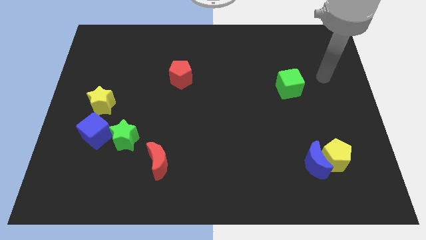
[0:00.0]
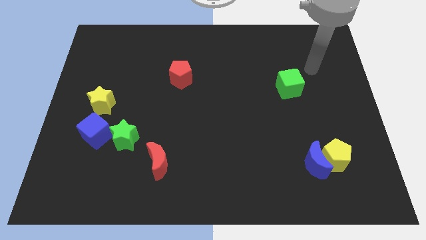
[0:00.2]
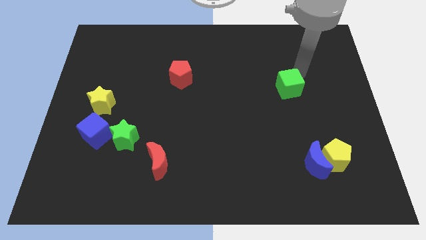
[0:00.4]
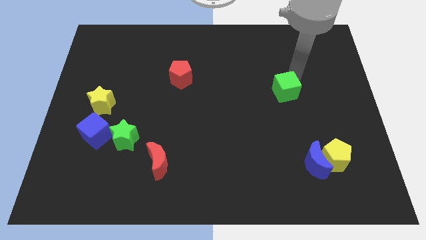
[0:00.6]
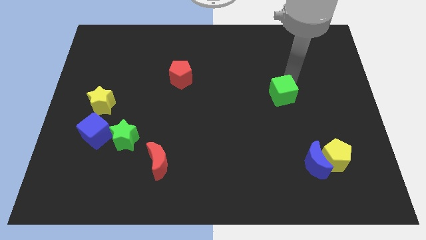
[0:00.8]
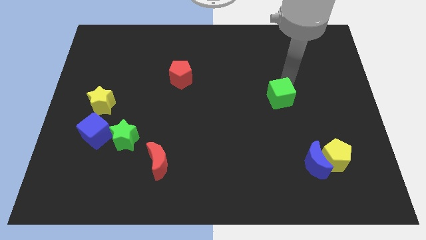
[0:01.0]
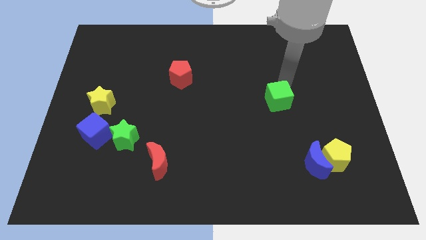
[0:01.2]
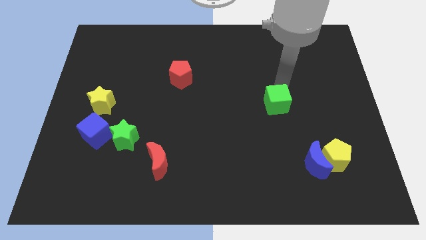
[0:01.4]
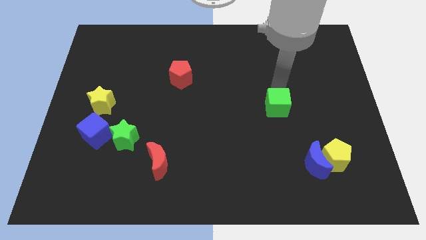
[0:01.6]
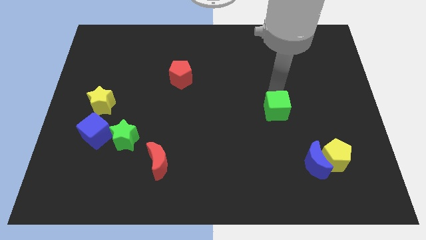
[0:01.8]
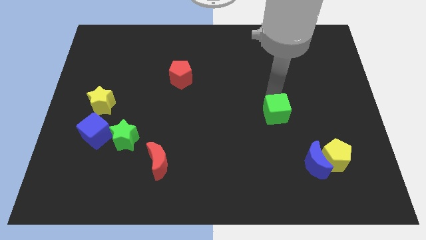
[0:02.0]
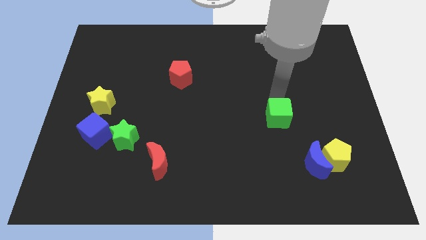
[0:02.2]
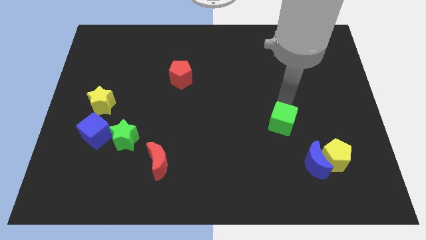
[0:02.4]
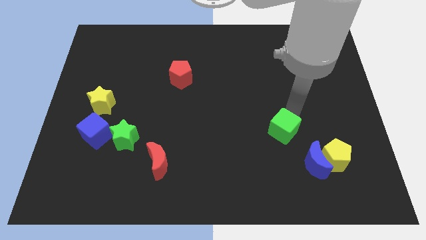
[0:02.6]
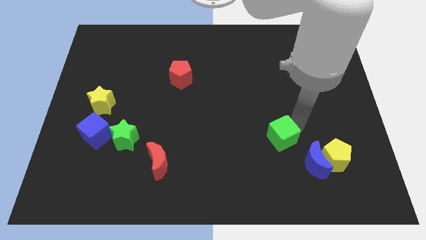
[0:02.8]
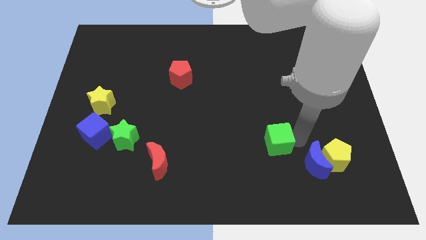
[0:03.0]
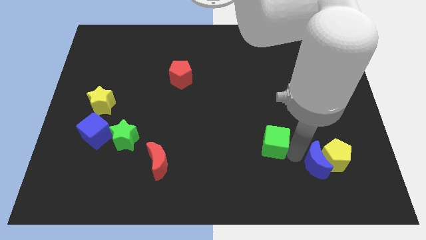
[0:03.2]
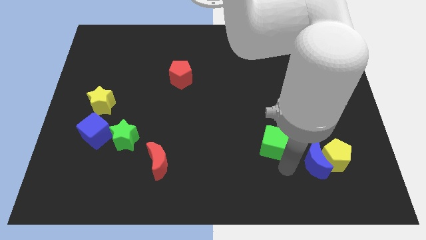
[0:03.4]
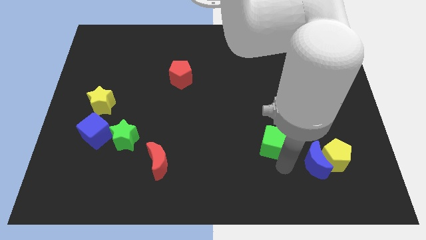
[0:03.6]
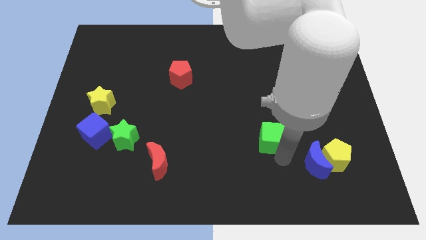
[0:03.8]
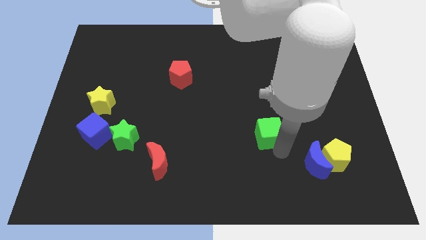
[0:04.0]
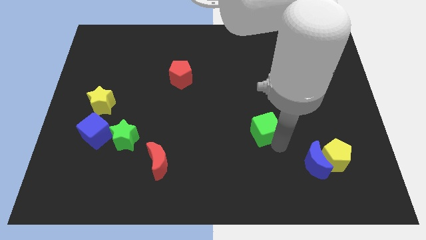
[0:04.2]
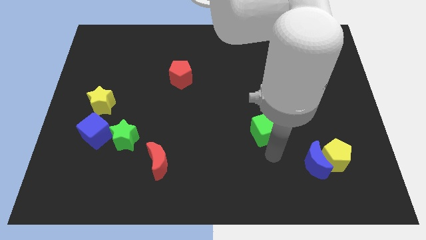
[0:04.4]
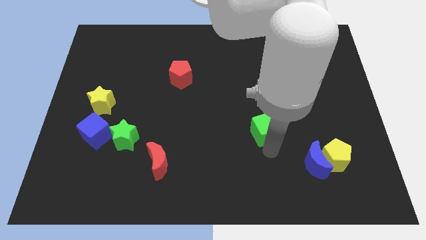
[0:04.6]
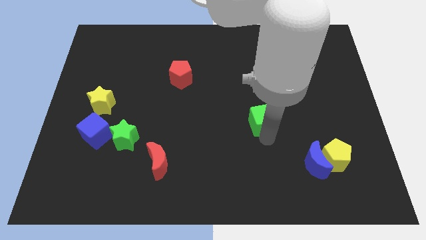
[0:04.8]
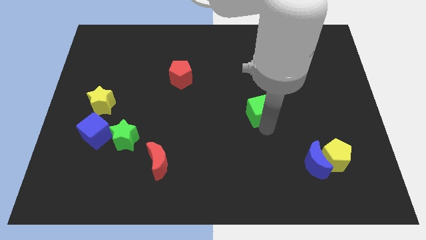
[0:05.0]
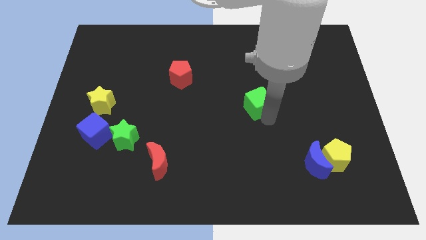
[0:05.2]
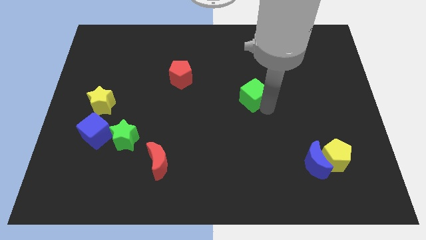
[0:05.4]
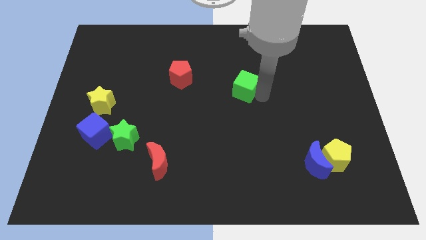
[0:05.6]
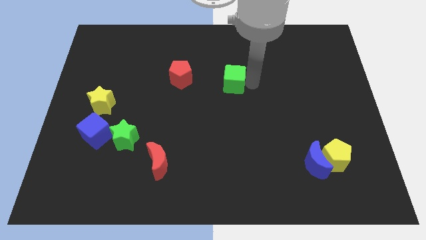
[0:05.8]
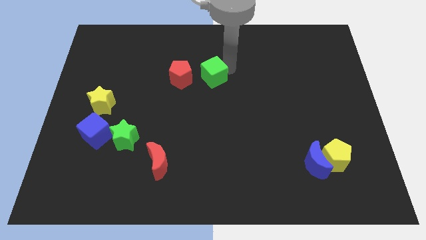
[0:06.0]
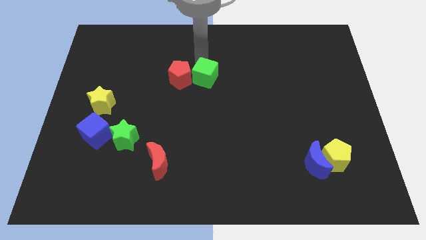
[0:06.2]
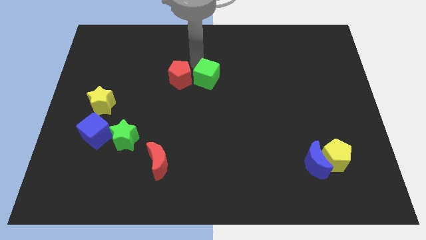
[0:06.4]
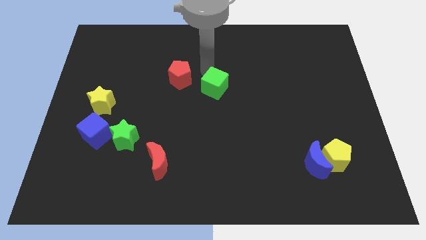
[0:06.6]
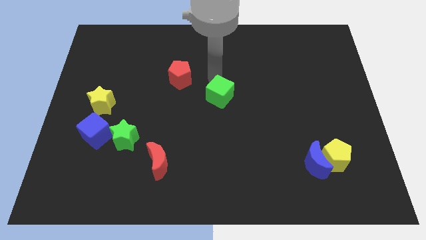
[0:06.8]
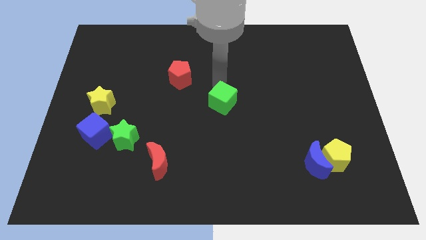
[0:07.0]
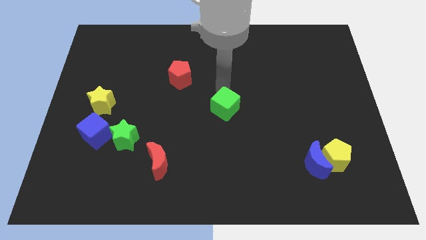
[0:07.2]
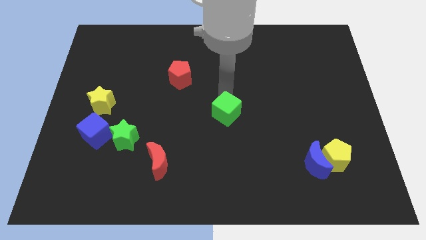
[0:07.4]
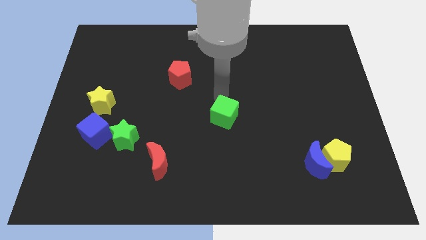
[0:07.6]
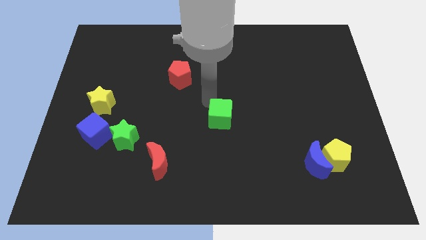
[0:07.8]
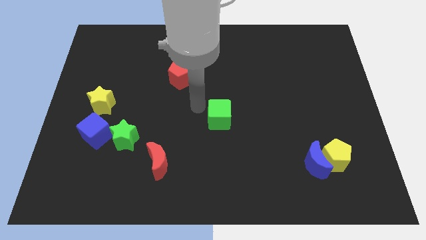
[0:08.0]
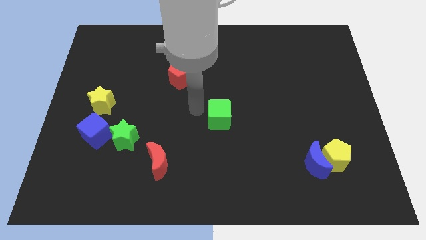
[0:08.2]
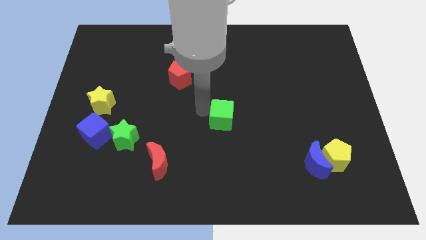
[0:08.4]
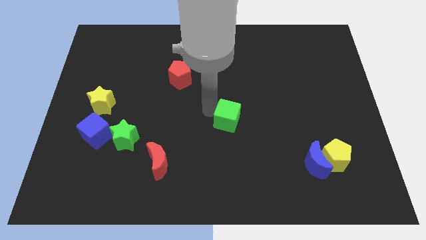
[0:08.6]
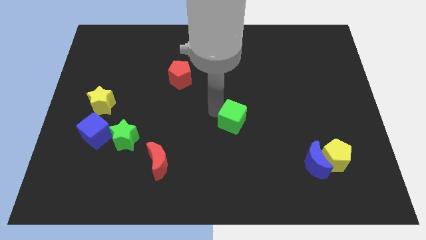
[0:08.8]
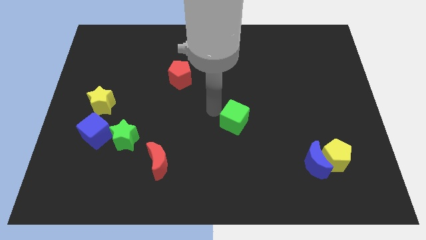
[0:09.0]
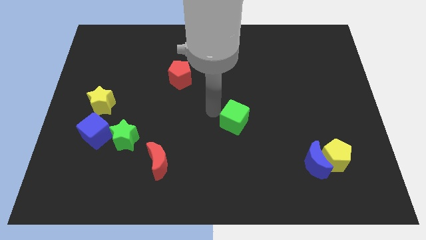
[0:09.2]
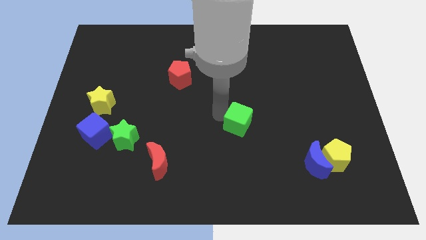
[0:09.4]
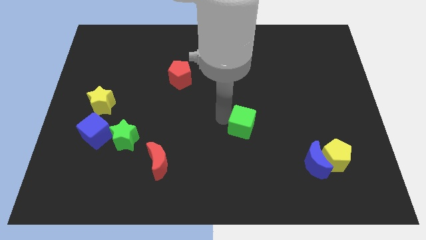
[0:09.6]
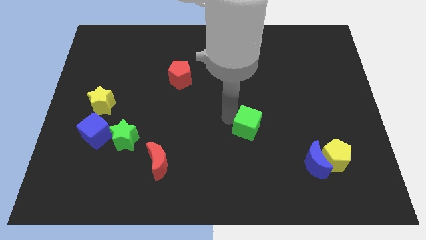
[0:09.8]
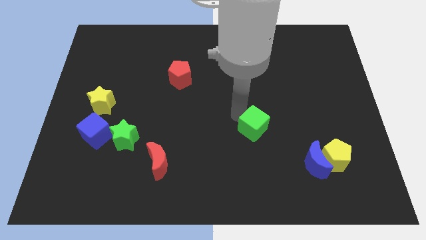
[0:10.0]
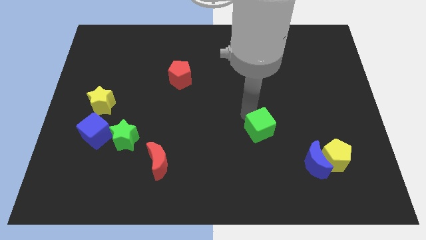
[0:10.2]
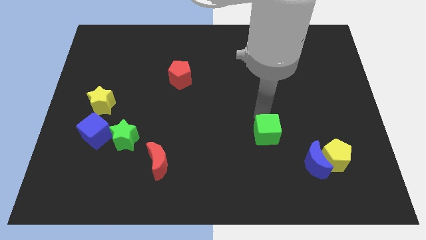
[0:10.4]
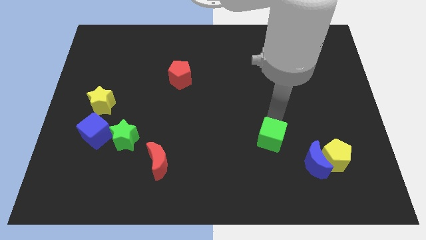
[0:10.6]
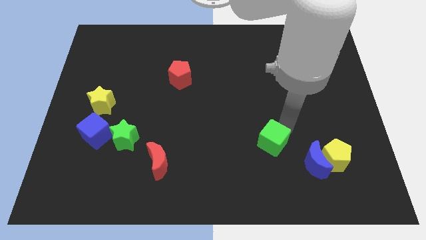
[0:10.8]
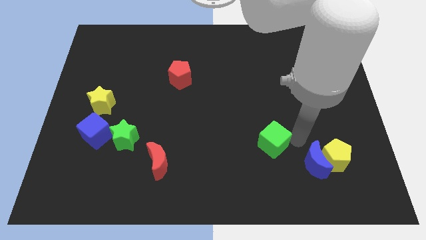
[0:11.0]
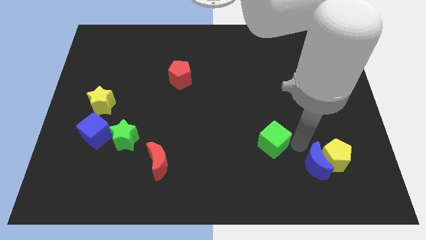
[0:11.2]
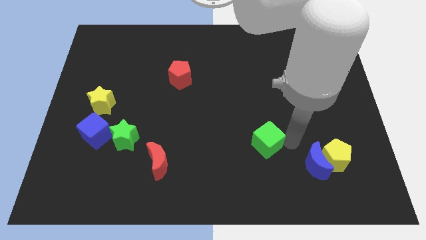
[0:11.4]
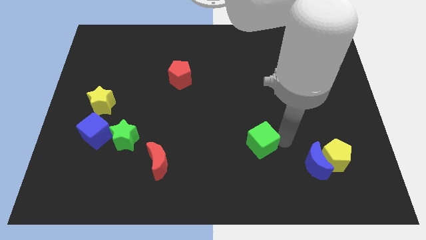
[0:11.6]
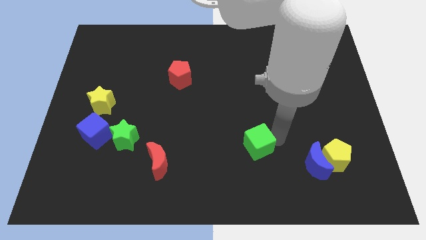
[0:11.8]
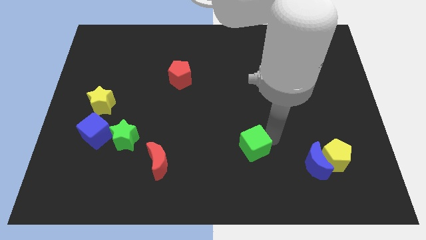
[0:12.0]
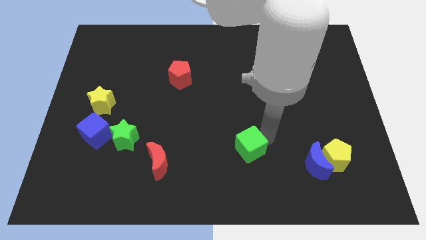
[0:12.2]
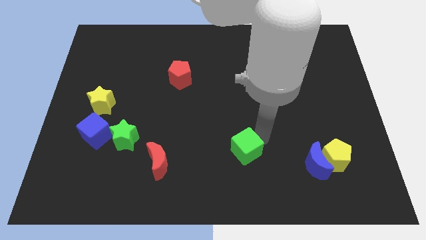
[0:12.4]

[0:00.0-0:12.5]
move the green cube down and left diagonally

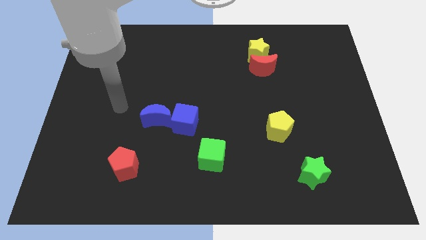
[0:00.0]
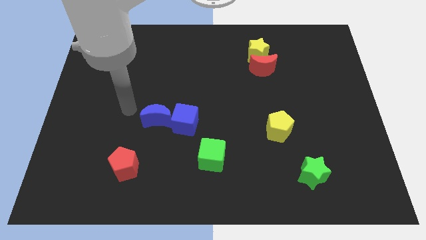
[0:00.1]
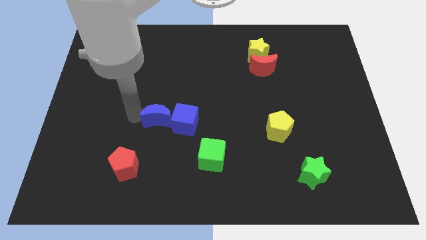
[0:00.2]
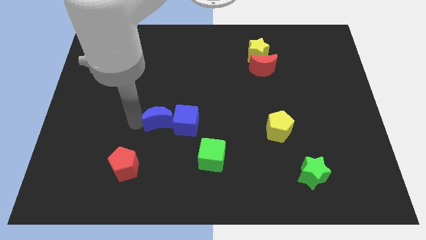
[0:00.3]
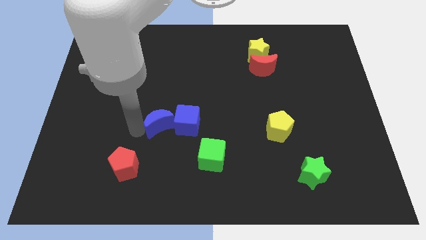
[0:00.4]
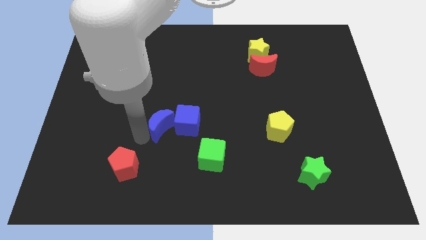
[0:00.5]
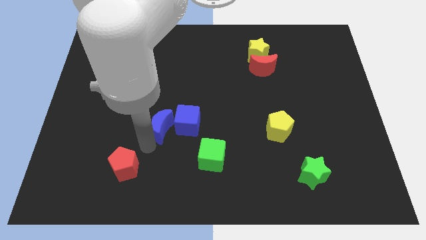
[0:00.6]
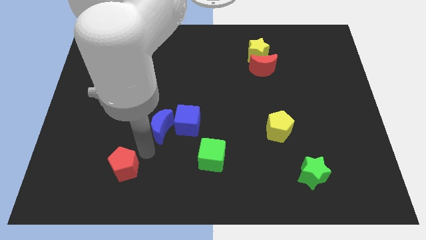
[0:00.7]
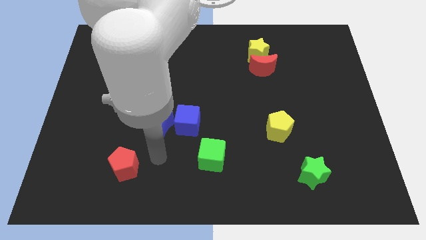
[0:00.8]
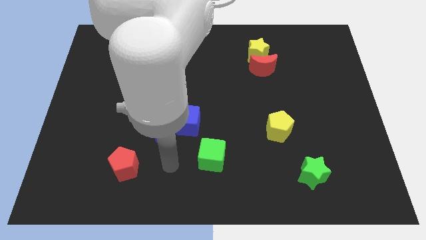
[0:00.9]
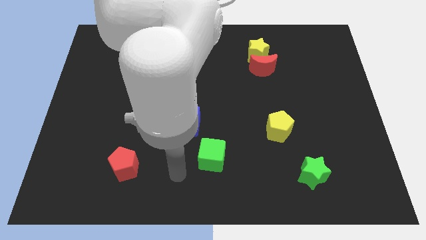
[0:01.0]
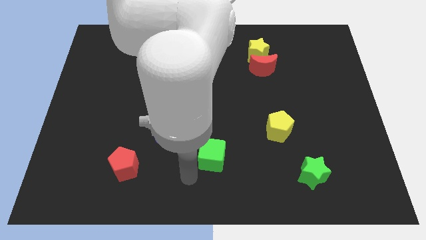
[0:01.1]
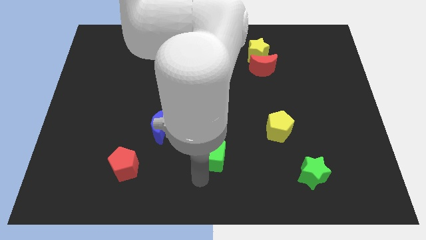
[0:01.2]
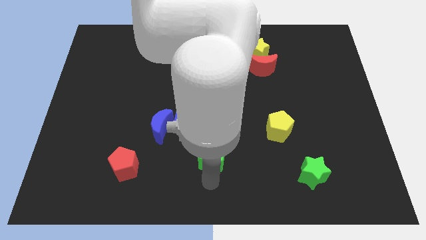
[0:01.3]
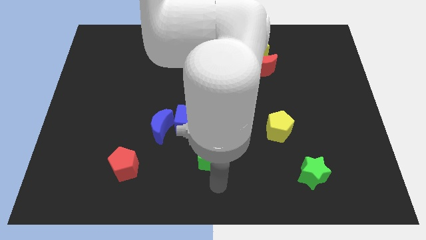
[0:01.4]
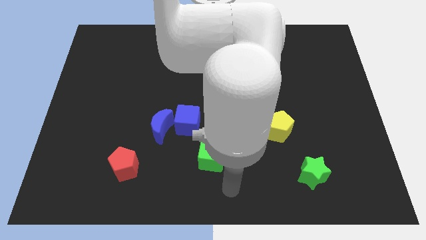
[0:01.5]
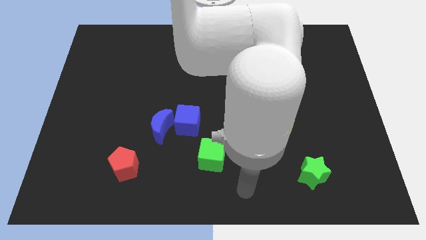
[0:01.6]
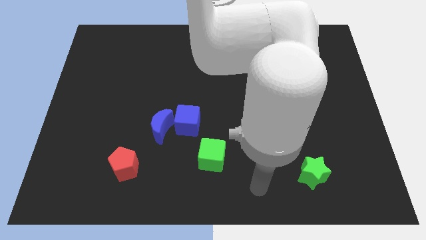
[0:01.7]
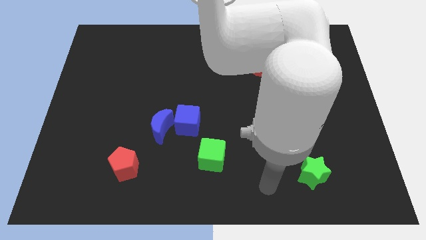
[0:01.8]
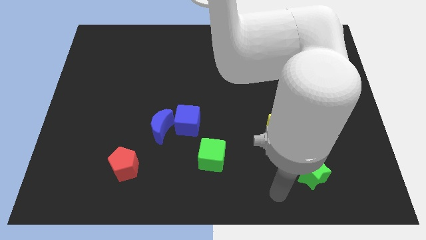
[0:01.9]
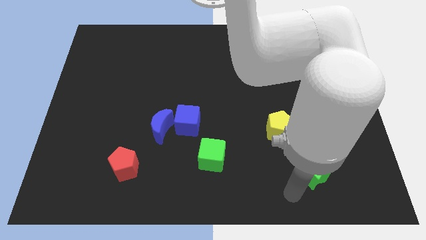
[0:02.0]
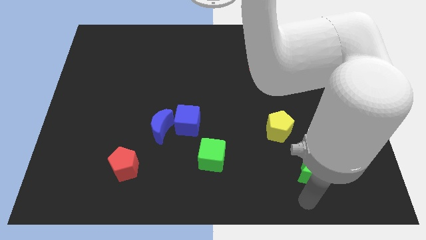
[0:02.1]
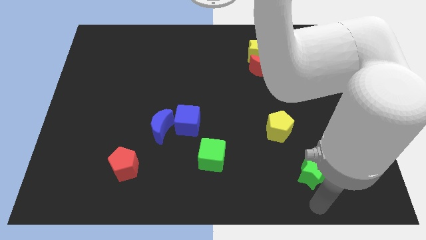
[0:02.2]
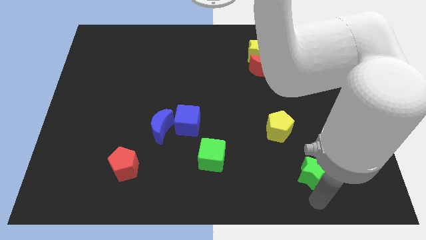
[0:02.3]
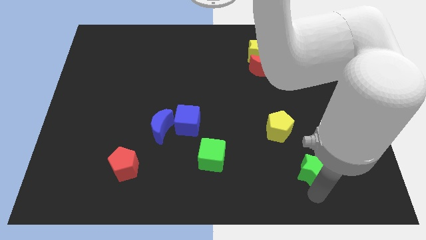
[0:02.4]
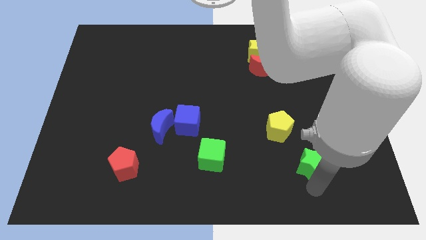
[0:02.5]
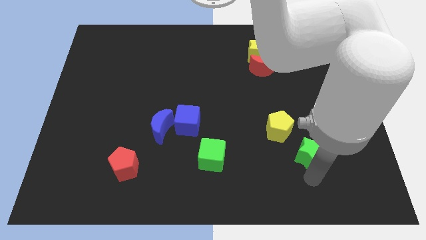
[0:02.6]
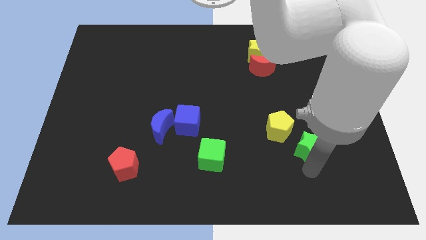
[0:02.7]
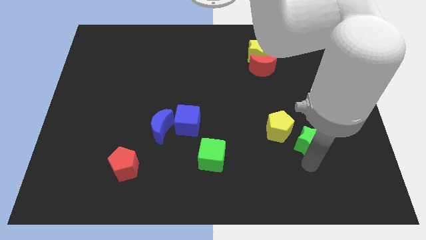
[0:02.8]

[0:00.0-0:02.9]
push the green star upwards a little
